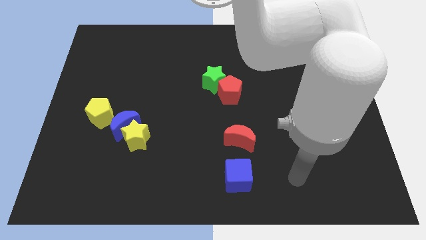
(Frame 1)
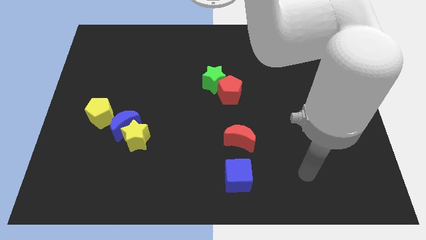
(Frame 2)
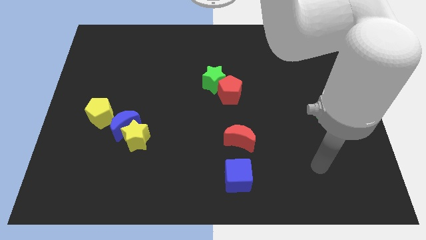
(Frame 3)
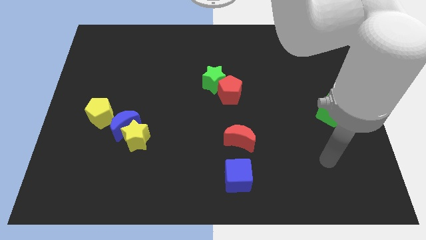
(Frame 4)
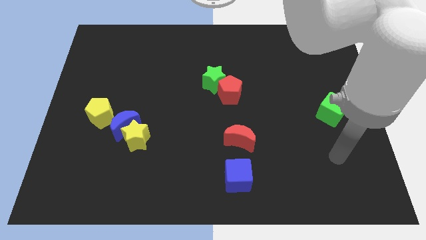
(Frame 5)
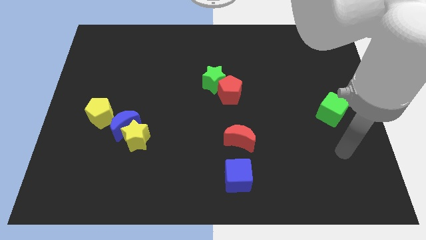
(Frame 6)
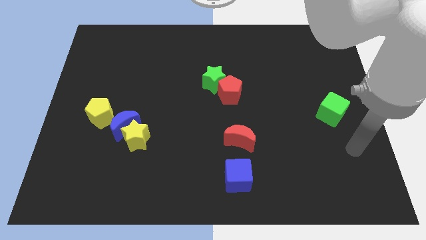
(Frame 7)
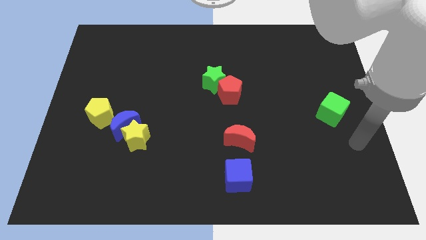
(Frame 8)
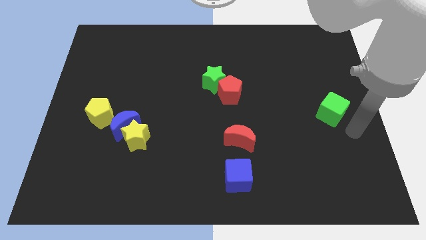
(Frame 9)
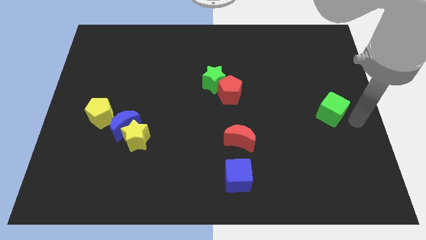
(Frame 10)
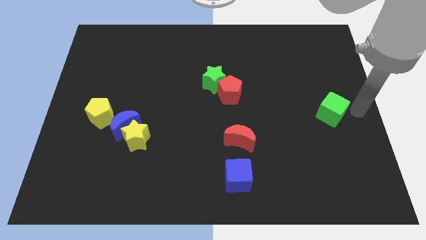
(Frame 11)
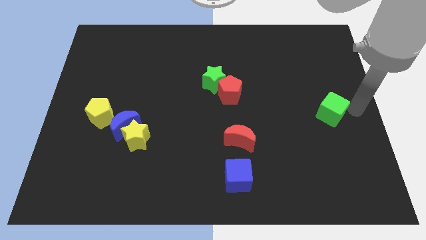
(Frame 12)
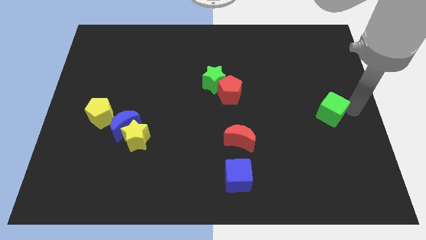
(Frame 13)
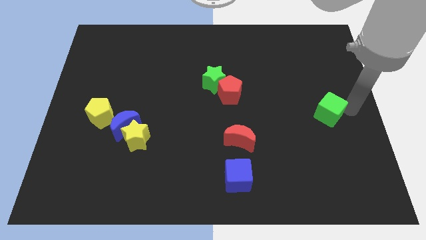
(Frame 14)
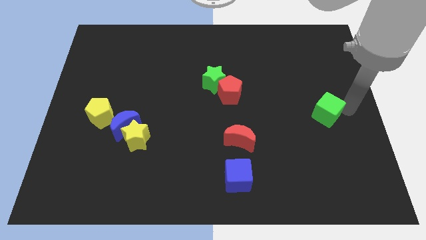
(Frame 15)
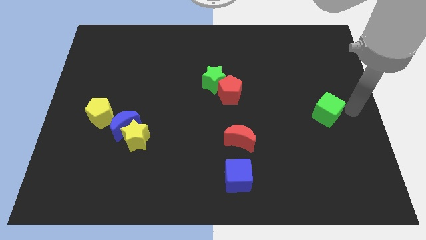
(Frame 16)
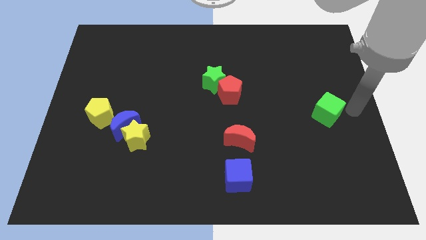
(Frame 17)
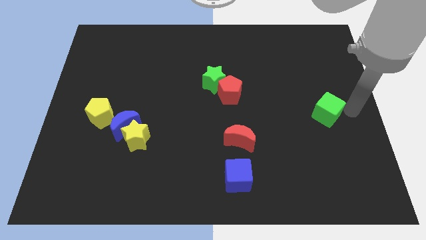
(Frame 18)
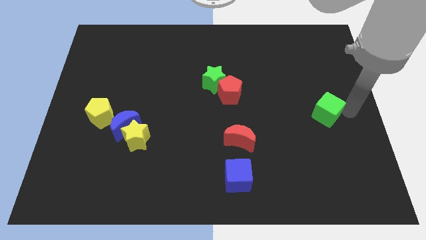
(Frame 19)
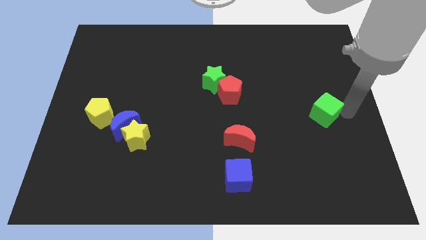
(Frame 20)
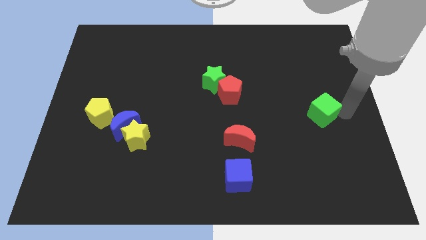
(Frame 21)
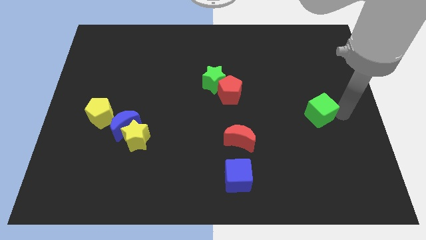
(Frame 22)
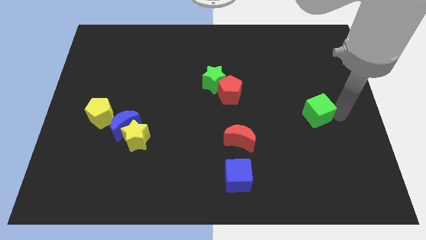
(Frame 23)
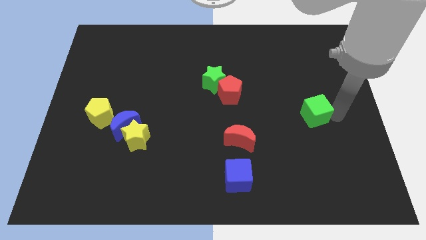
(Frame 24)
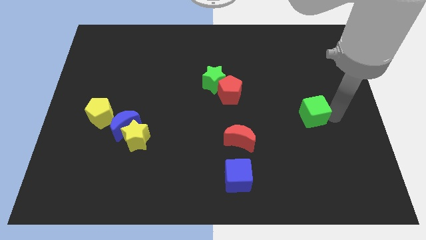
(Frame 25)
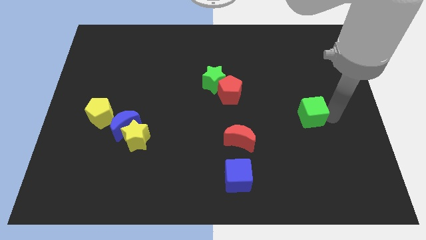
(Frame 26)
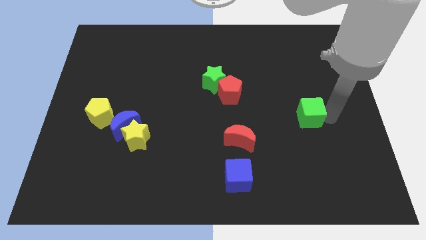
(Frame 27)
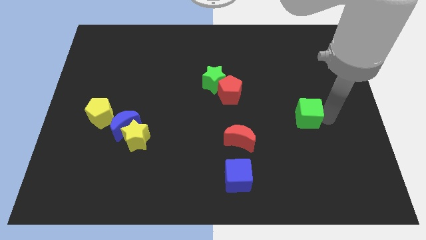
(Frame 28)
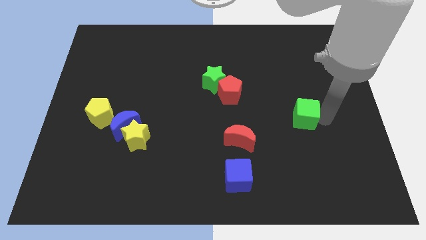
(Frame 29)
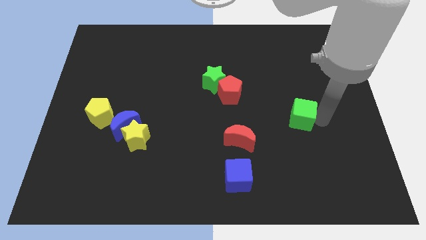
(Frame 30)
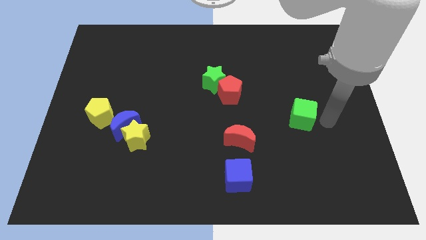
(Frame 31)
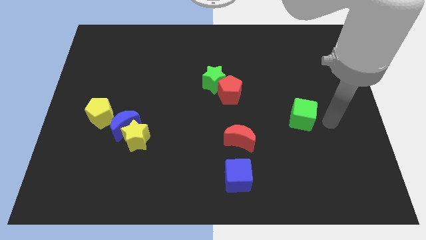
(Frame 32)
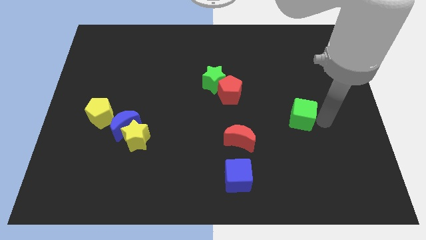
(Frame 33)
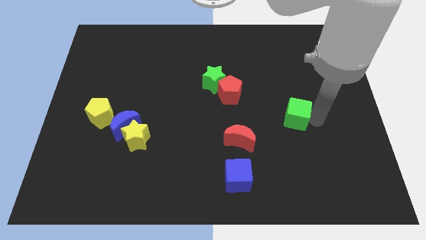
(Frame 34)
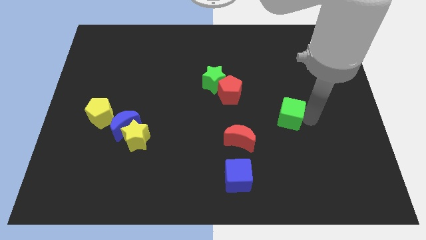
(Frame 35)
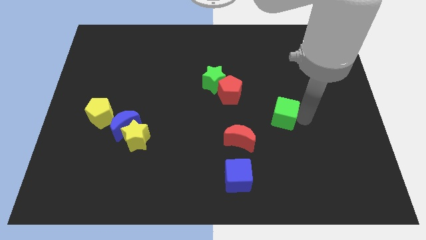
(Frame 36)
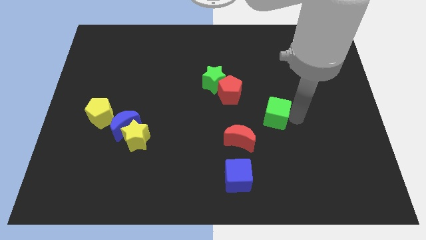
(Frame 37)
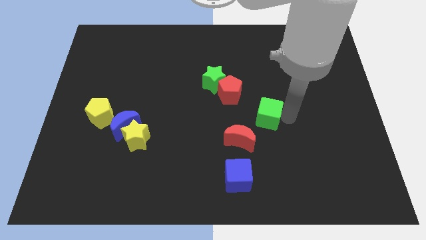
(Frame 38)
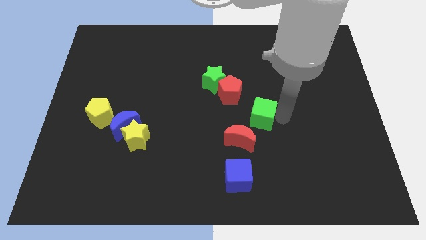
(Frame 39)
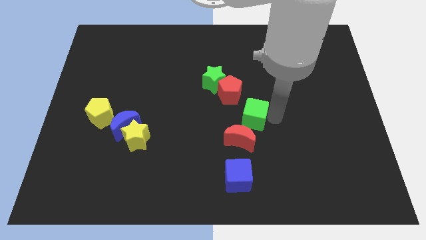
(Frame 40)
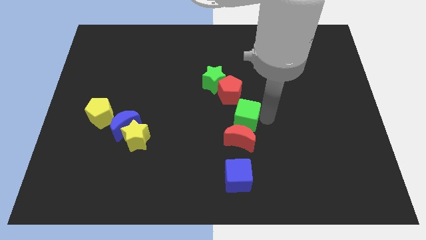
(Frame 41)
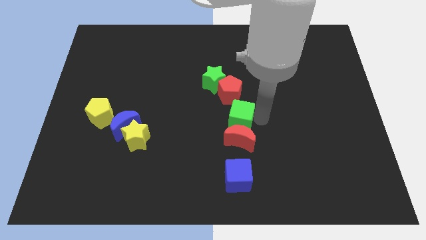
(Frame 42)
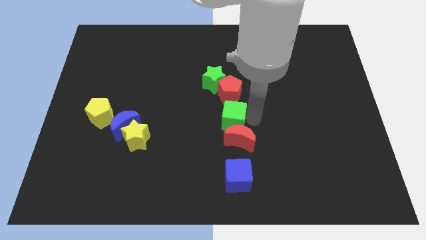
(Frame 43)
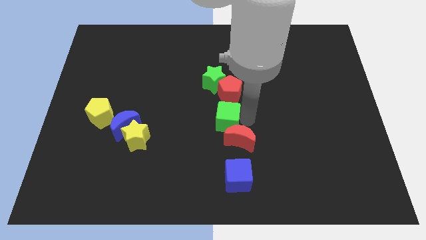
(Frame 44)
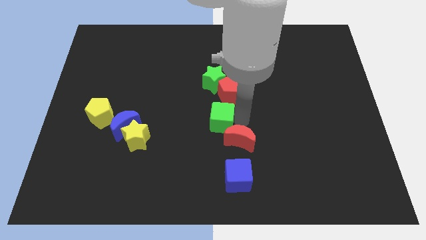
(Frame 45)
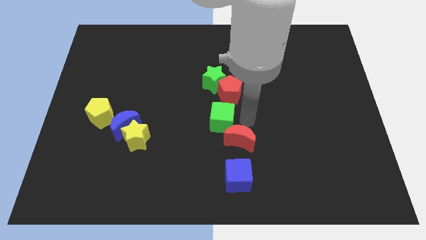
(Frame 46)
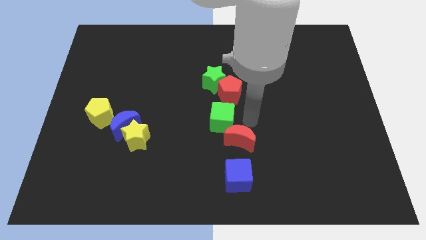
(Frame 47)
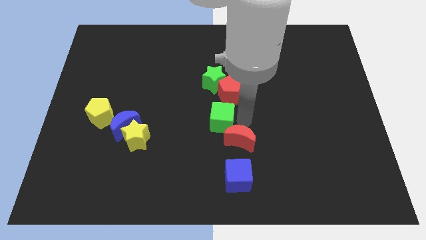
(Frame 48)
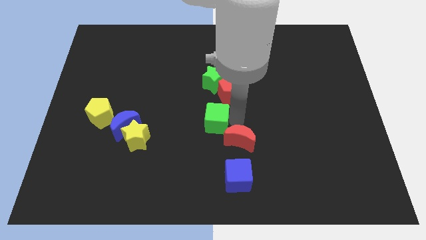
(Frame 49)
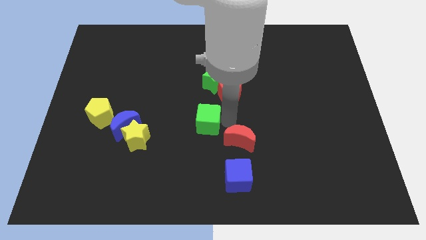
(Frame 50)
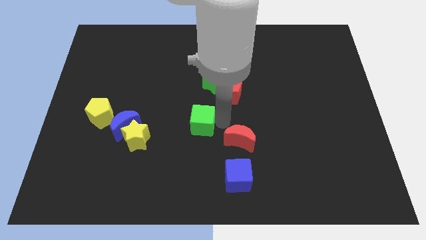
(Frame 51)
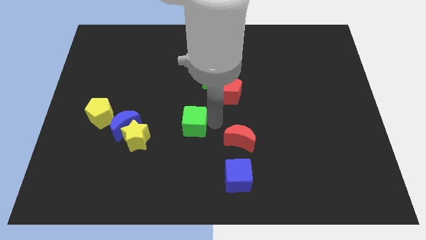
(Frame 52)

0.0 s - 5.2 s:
push the green cube just right of the blue moon

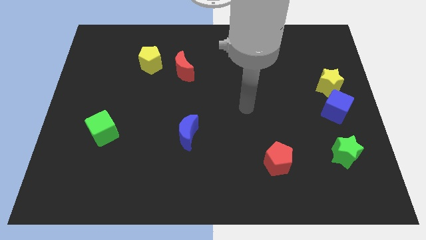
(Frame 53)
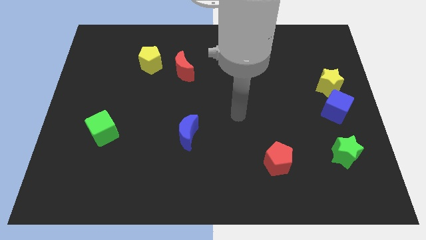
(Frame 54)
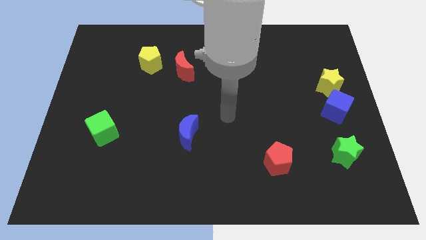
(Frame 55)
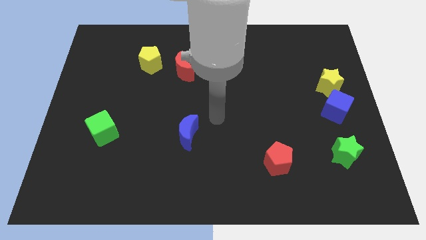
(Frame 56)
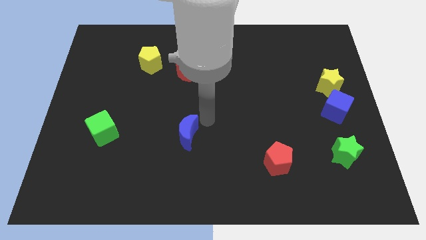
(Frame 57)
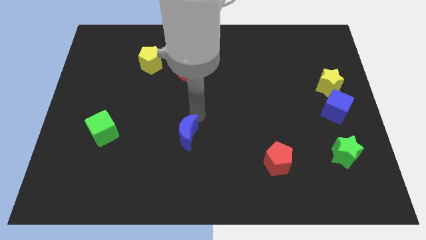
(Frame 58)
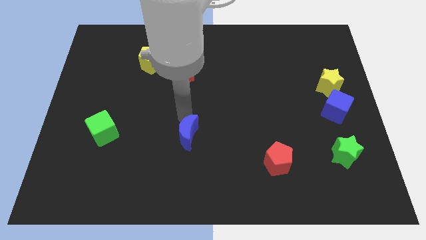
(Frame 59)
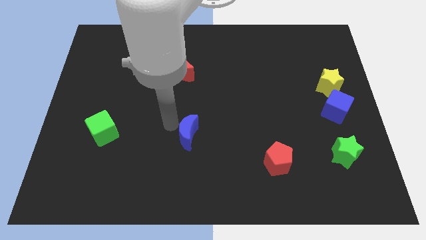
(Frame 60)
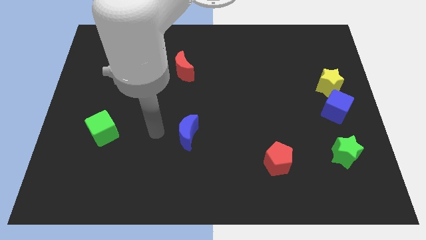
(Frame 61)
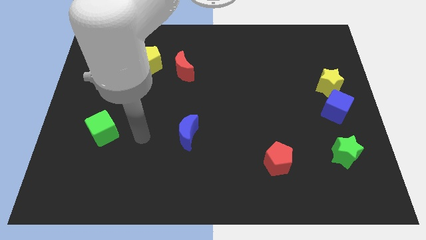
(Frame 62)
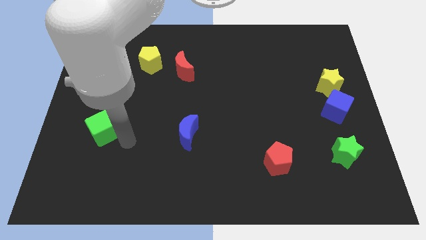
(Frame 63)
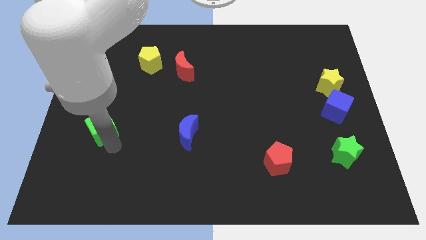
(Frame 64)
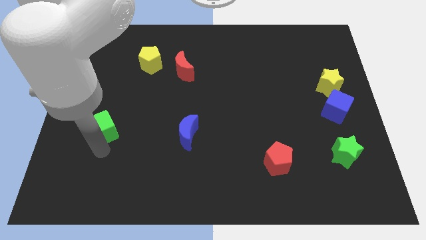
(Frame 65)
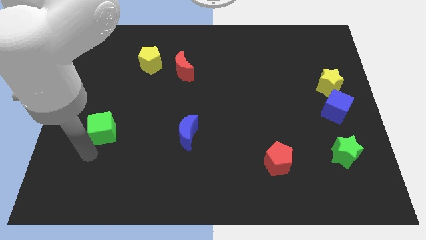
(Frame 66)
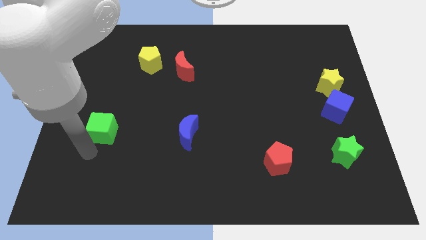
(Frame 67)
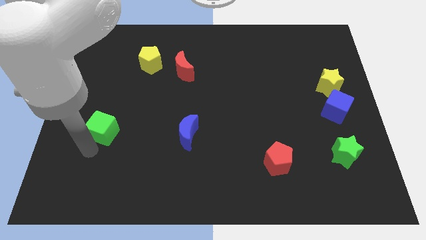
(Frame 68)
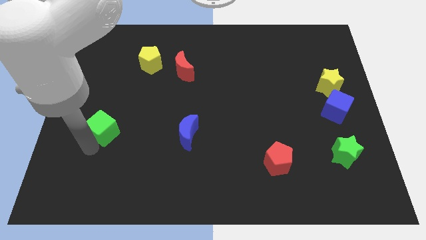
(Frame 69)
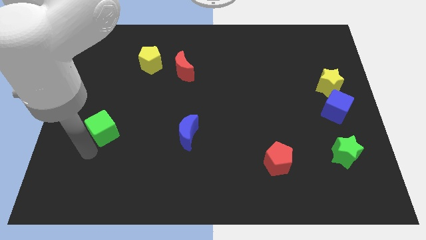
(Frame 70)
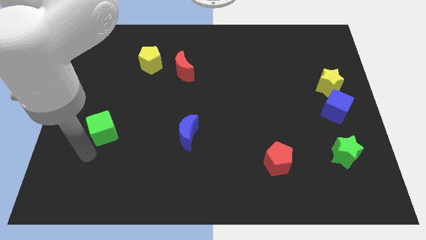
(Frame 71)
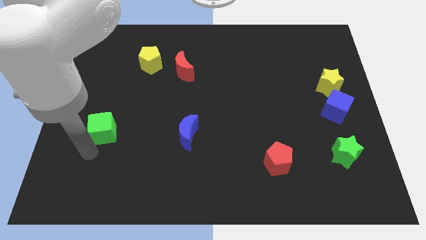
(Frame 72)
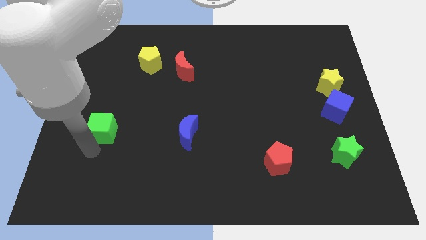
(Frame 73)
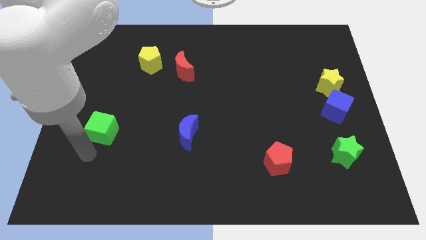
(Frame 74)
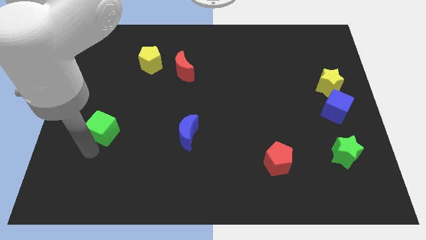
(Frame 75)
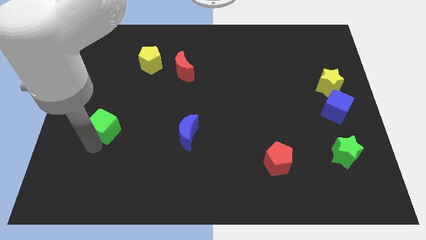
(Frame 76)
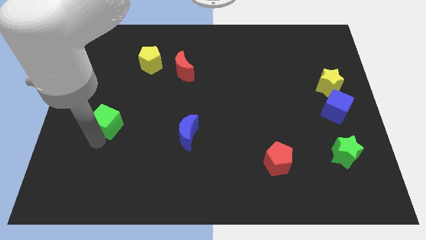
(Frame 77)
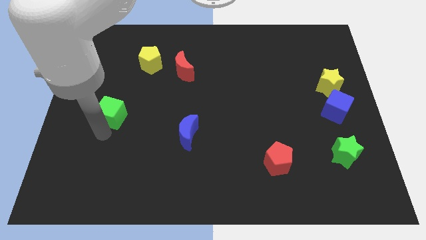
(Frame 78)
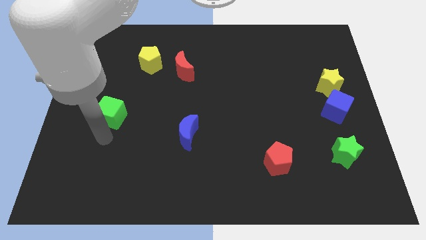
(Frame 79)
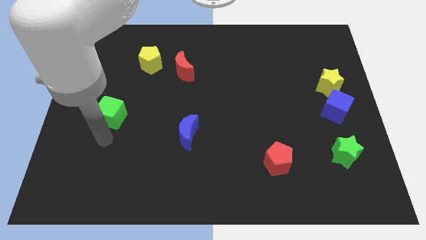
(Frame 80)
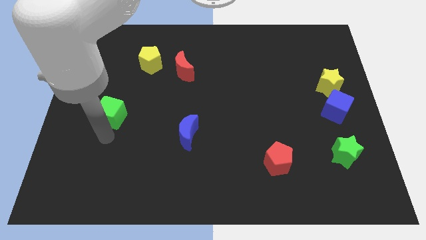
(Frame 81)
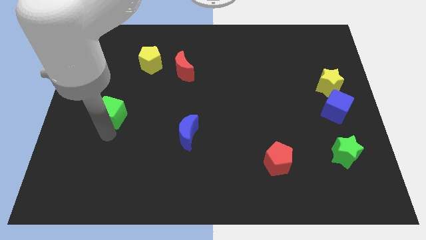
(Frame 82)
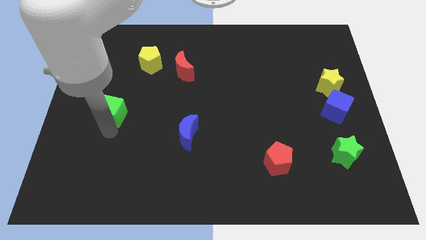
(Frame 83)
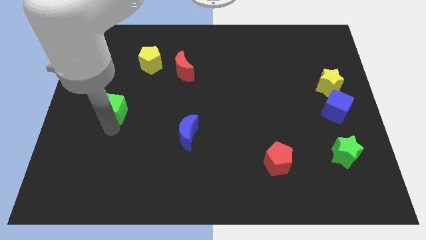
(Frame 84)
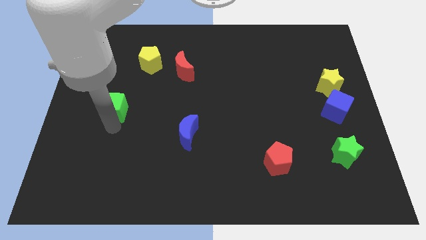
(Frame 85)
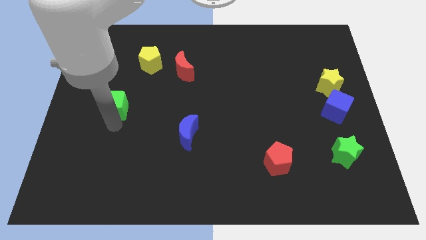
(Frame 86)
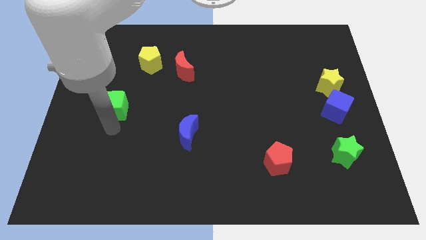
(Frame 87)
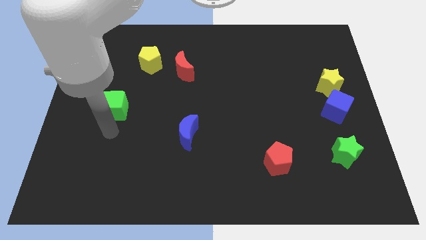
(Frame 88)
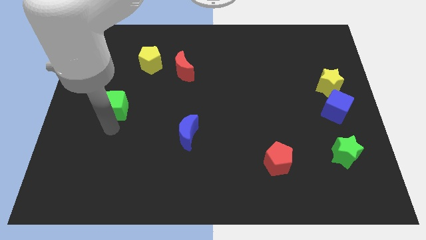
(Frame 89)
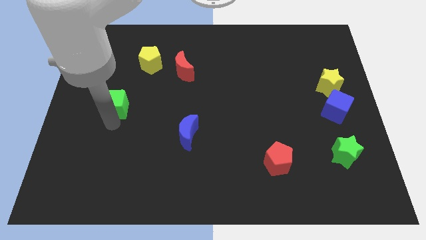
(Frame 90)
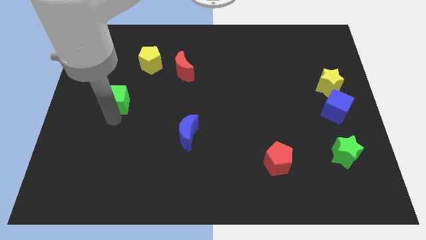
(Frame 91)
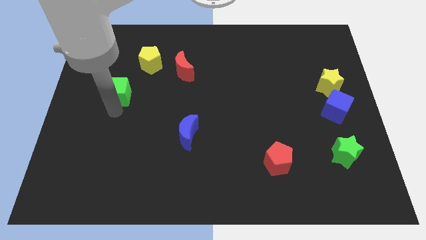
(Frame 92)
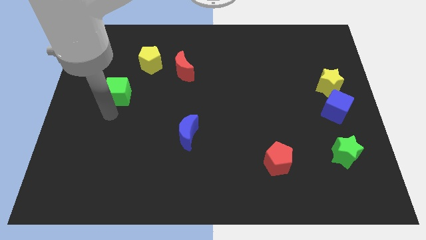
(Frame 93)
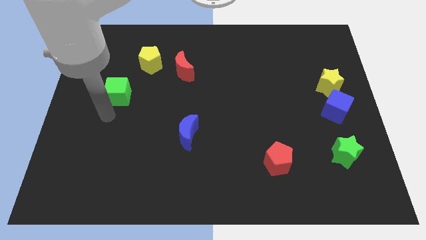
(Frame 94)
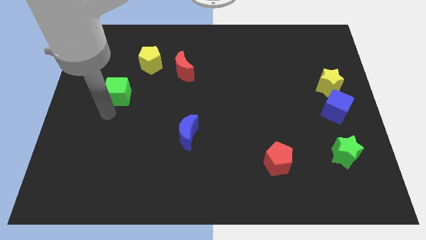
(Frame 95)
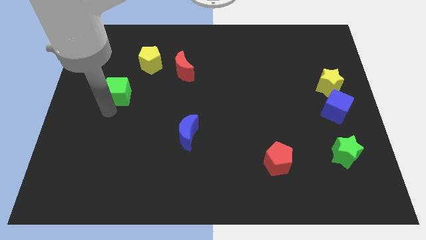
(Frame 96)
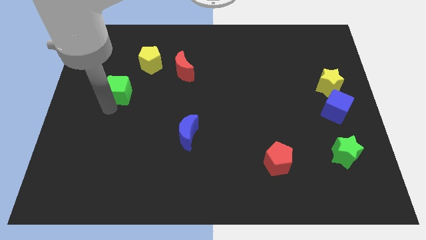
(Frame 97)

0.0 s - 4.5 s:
slide the green cube to the bottom left side of the yellow pentagon
